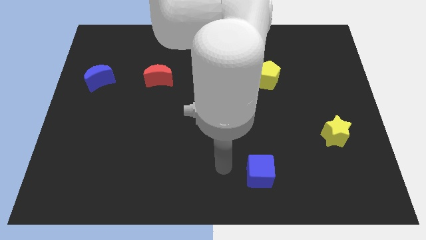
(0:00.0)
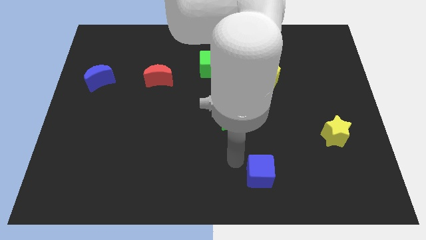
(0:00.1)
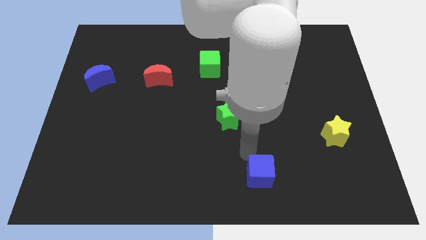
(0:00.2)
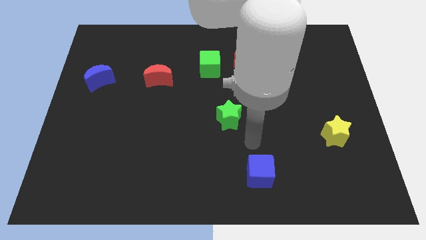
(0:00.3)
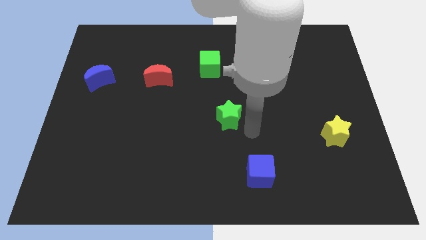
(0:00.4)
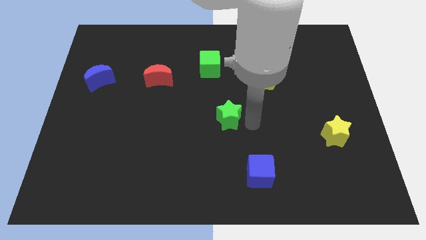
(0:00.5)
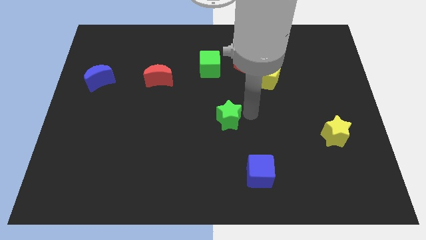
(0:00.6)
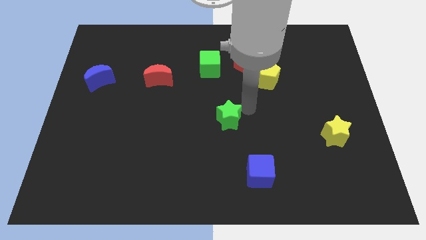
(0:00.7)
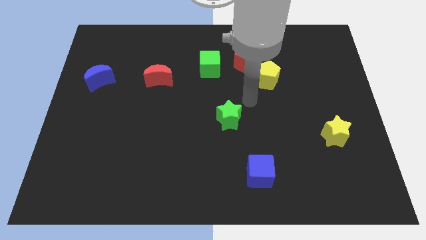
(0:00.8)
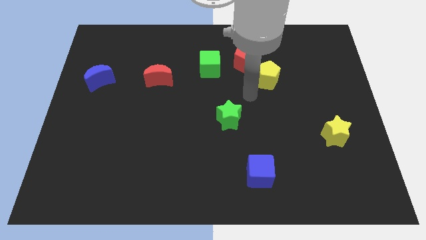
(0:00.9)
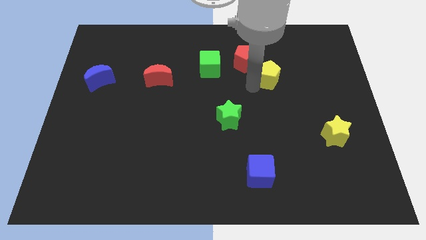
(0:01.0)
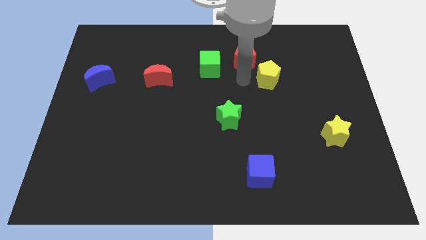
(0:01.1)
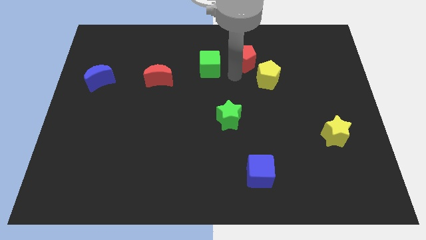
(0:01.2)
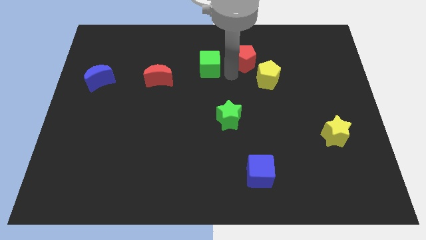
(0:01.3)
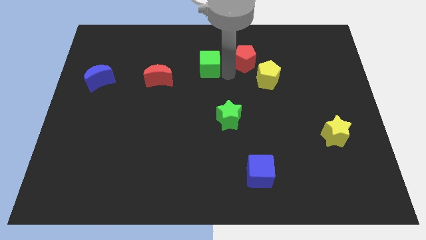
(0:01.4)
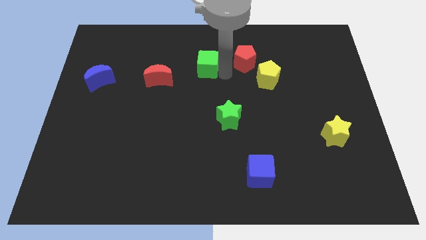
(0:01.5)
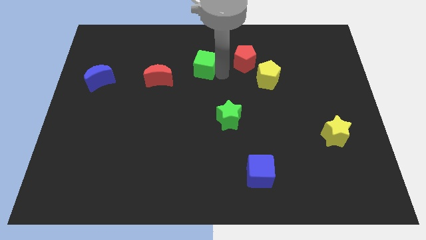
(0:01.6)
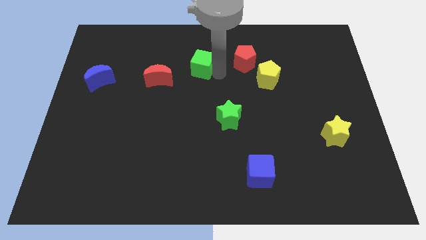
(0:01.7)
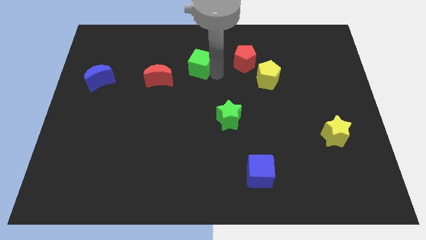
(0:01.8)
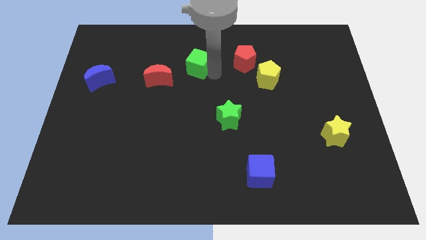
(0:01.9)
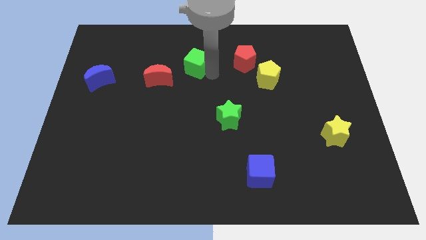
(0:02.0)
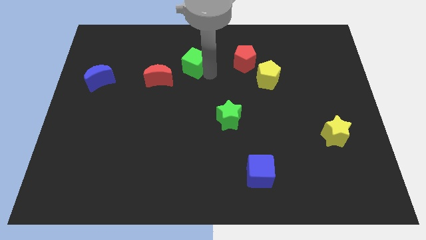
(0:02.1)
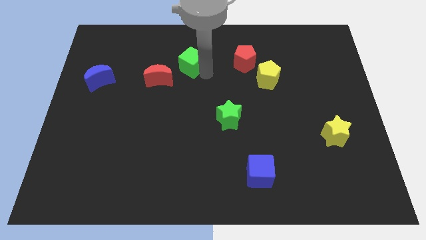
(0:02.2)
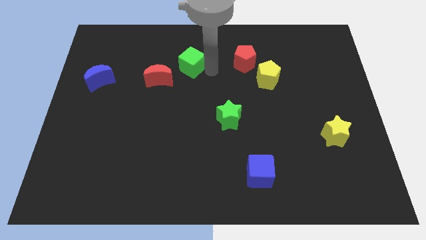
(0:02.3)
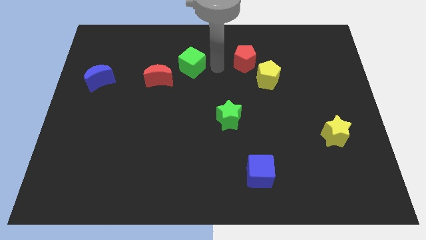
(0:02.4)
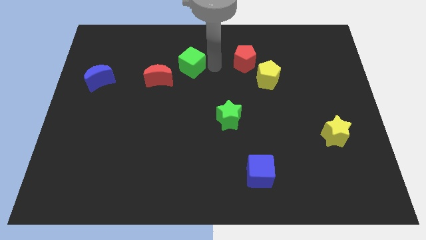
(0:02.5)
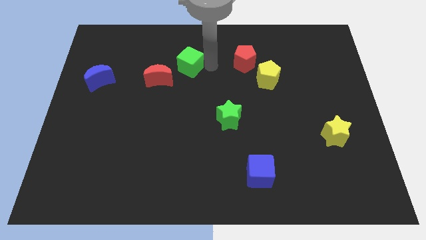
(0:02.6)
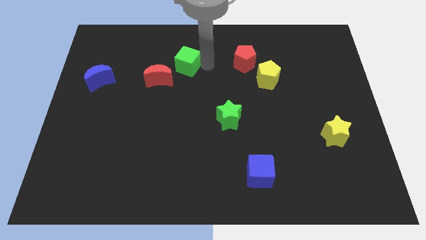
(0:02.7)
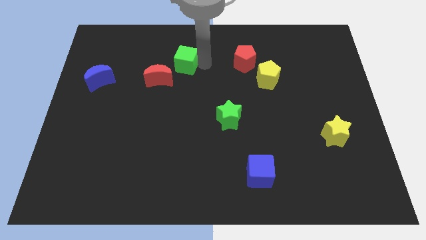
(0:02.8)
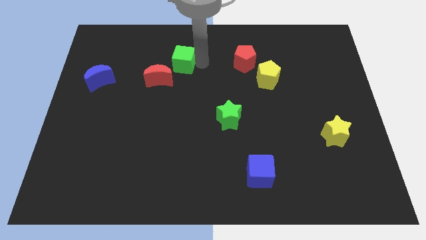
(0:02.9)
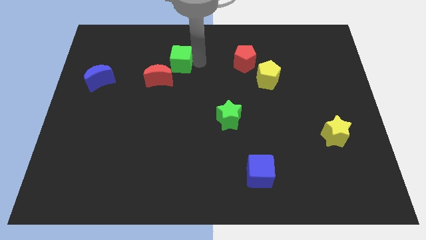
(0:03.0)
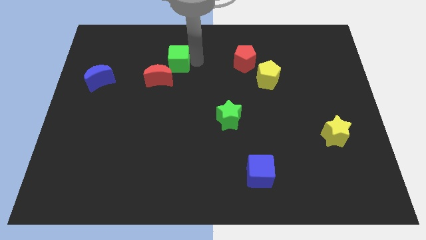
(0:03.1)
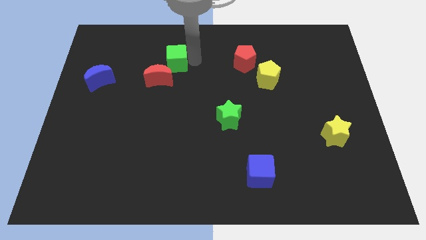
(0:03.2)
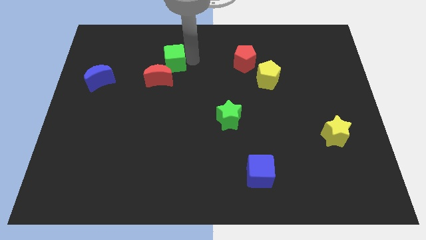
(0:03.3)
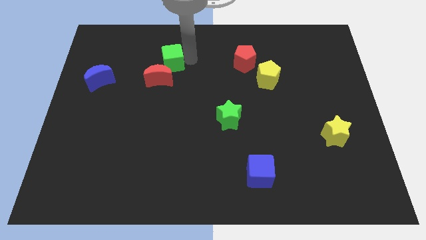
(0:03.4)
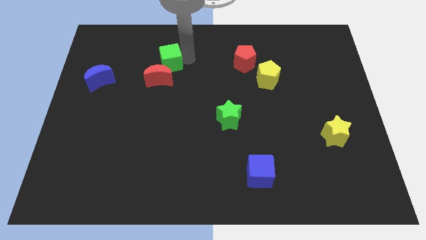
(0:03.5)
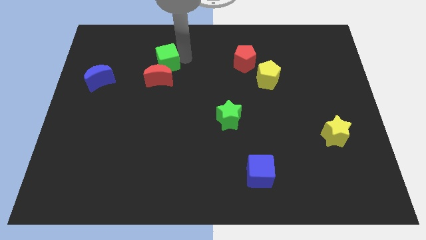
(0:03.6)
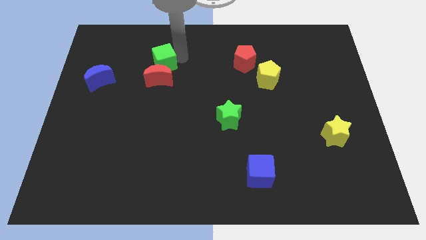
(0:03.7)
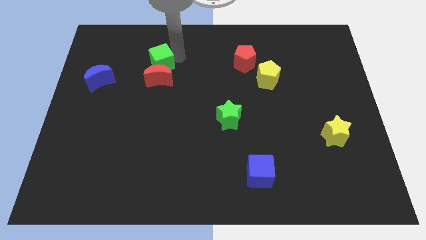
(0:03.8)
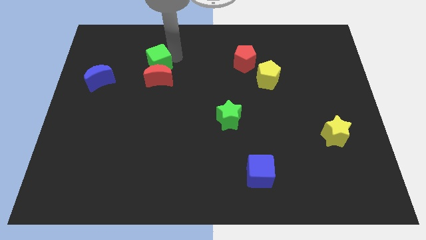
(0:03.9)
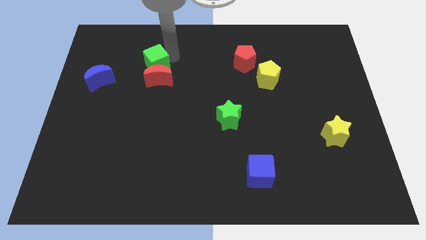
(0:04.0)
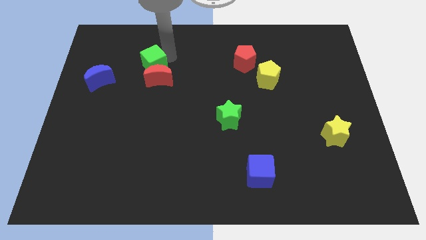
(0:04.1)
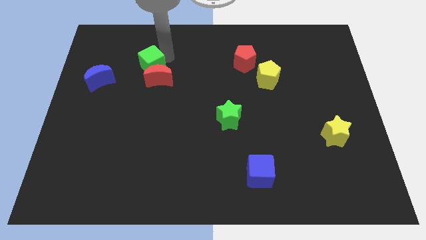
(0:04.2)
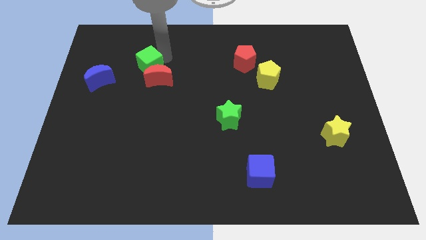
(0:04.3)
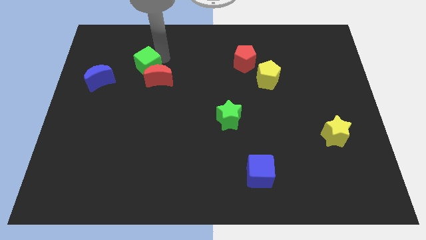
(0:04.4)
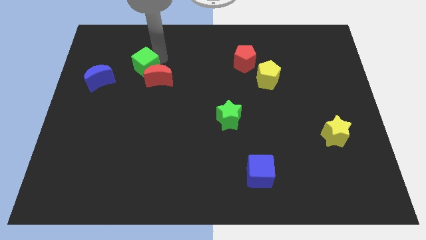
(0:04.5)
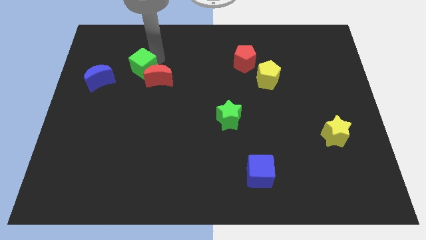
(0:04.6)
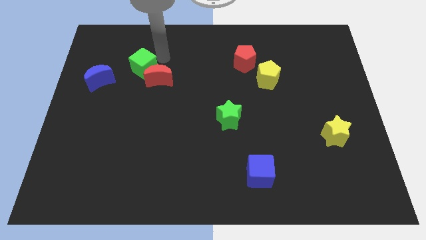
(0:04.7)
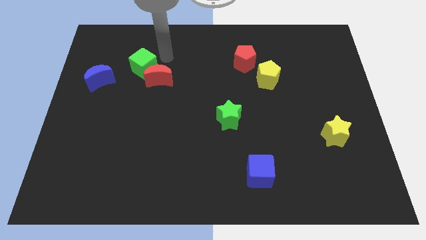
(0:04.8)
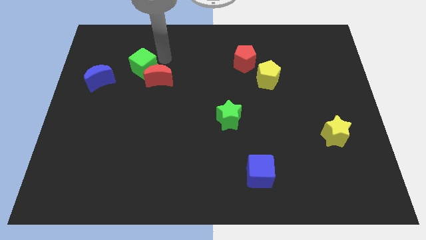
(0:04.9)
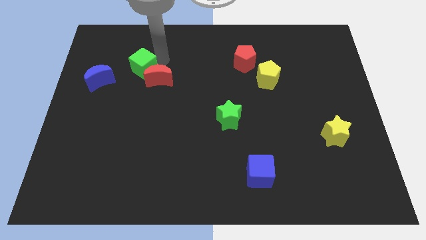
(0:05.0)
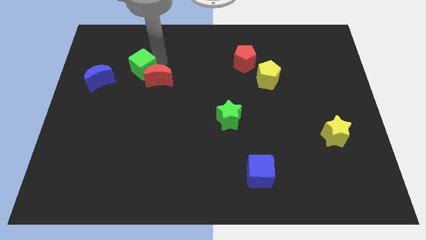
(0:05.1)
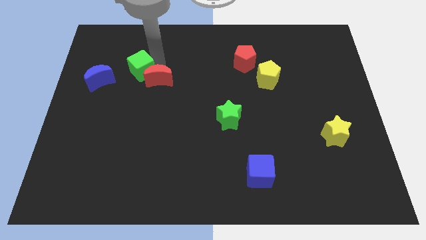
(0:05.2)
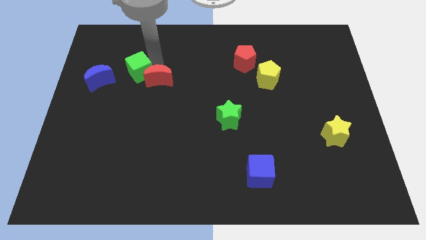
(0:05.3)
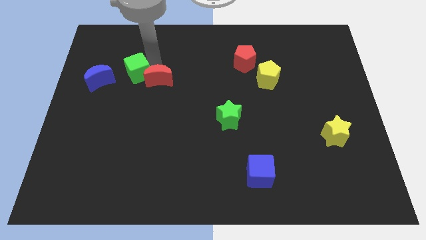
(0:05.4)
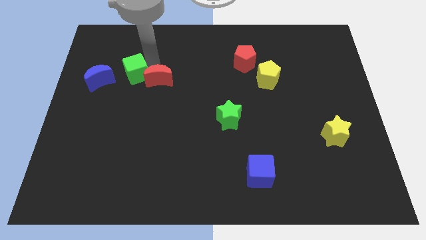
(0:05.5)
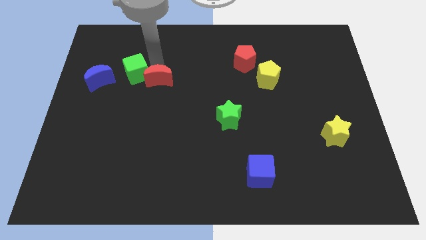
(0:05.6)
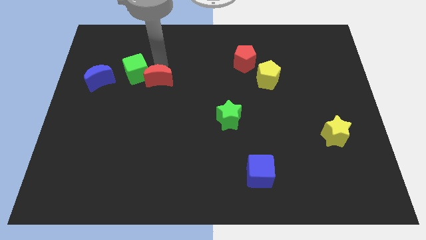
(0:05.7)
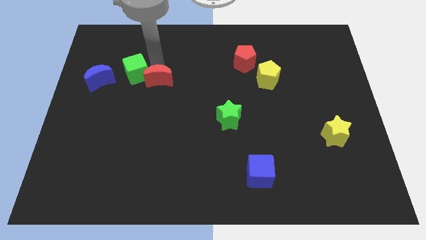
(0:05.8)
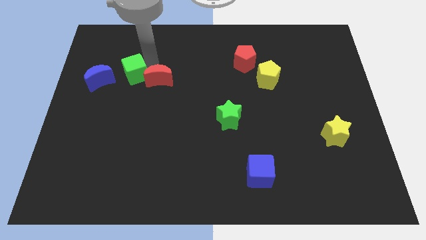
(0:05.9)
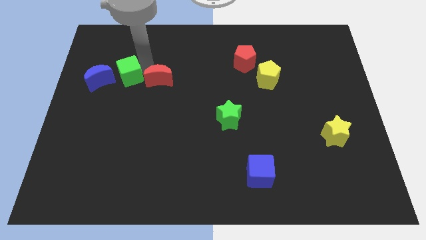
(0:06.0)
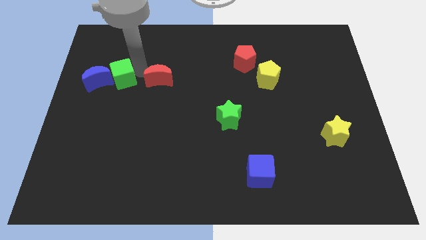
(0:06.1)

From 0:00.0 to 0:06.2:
move the green cube to the blue moon

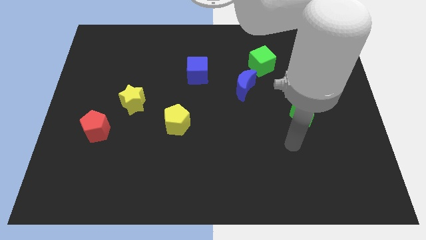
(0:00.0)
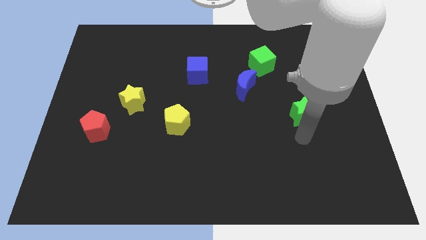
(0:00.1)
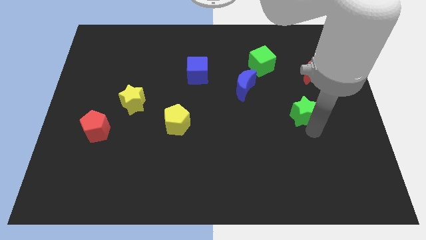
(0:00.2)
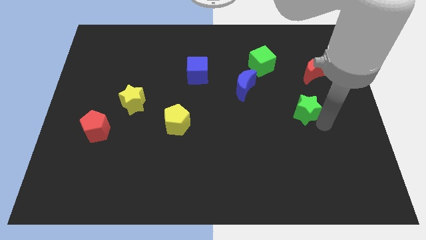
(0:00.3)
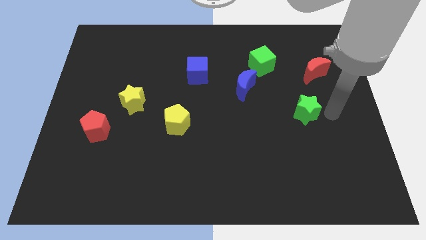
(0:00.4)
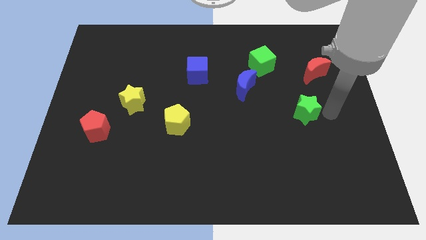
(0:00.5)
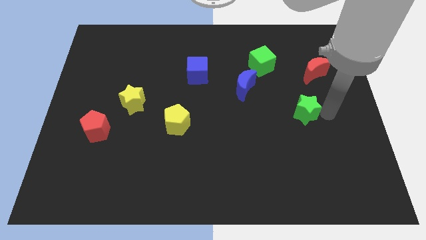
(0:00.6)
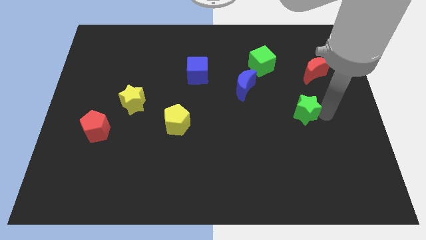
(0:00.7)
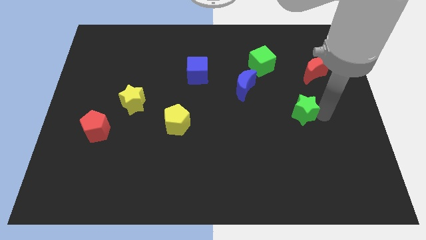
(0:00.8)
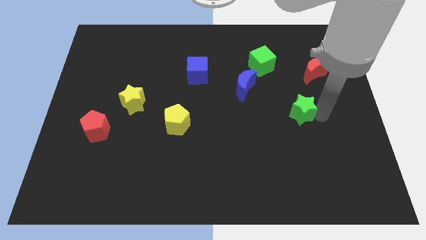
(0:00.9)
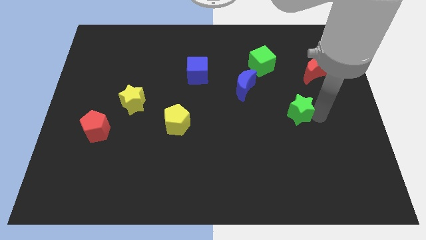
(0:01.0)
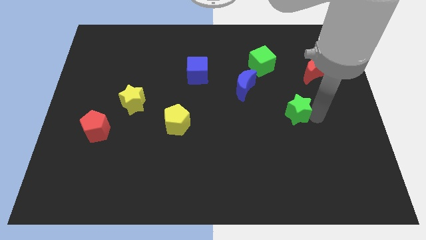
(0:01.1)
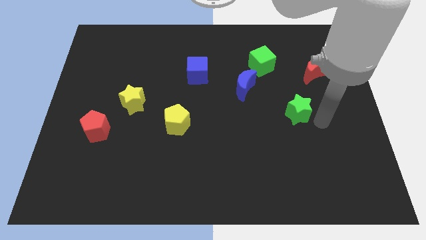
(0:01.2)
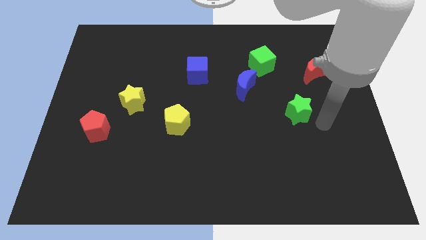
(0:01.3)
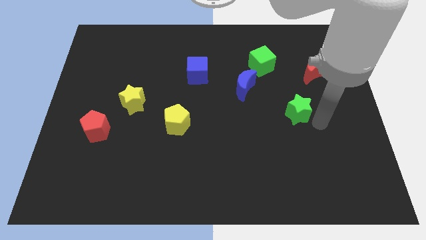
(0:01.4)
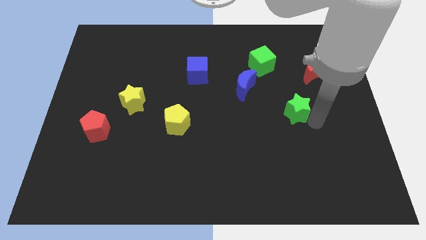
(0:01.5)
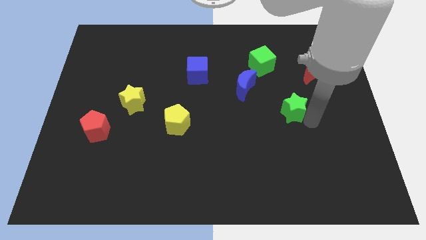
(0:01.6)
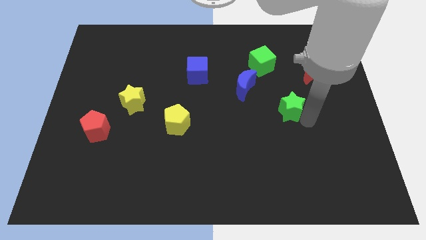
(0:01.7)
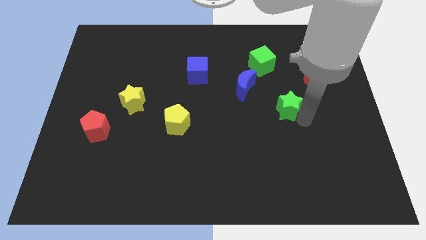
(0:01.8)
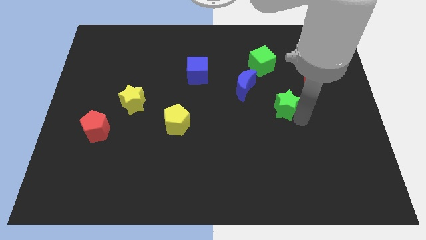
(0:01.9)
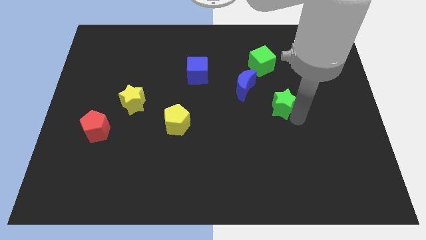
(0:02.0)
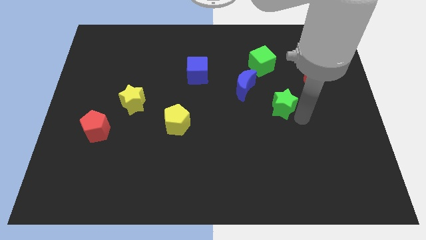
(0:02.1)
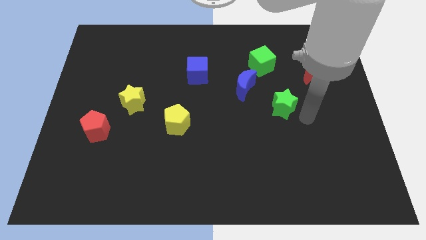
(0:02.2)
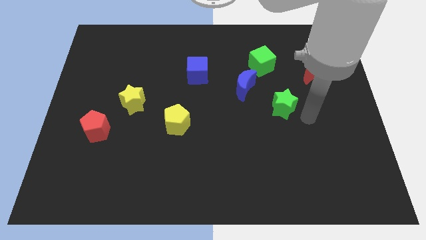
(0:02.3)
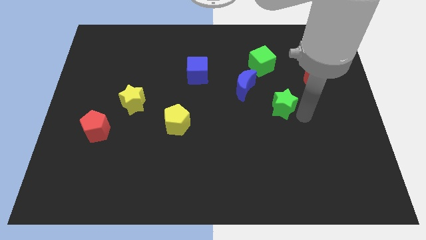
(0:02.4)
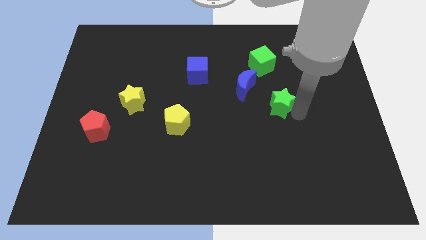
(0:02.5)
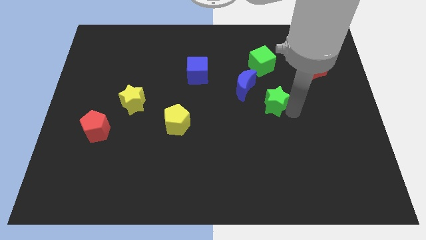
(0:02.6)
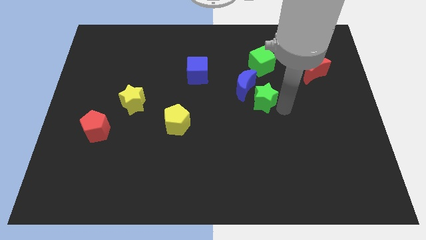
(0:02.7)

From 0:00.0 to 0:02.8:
push the green star next to the blue moon
